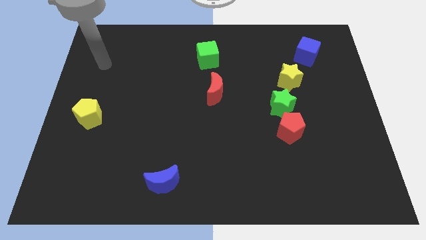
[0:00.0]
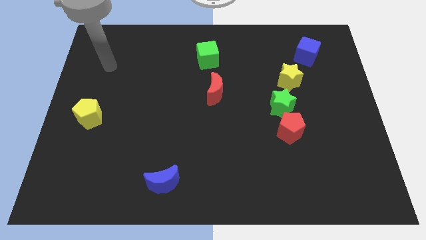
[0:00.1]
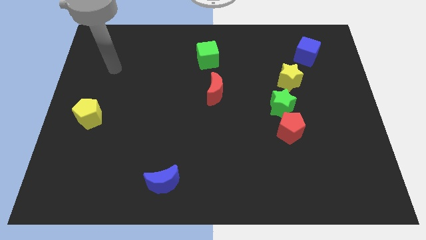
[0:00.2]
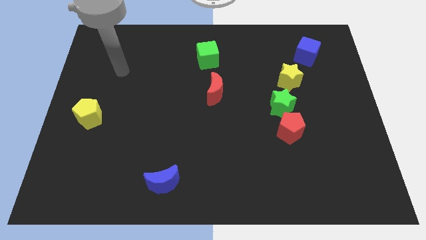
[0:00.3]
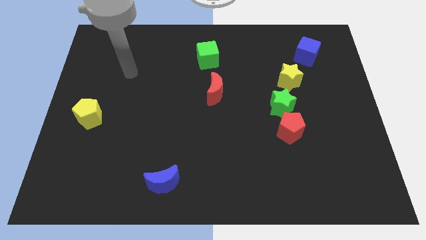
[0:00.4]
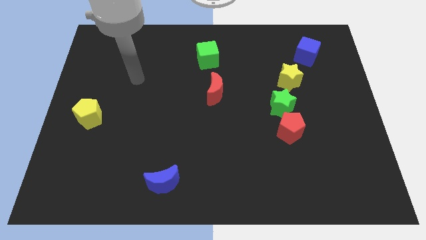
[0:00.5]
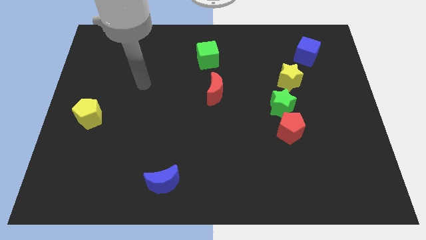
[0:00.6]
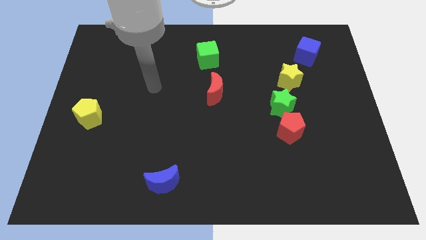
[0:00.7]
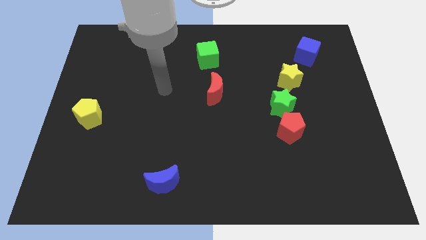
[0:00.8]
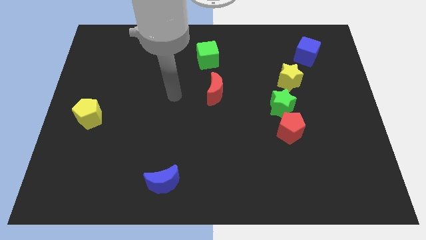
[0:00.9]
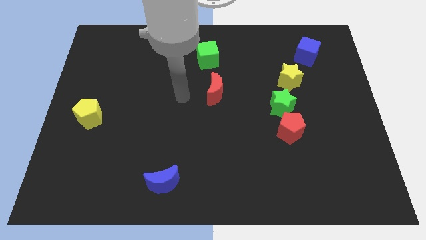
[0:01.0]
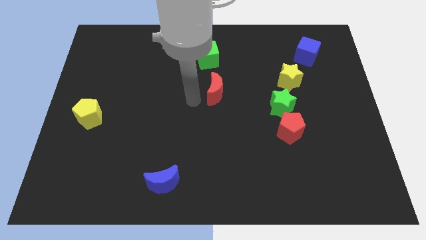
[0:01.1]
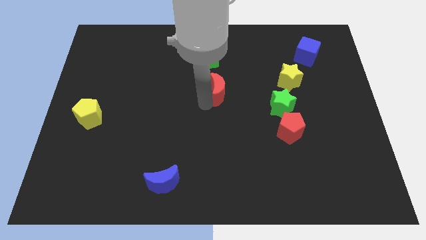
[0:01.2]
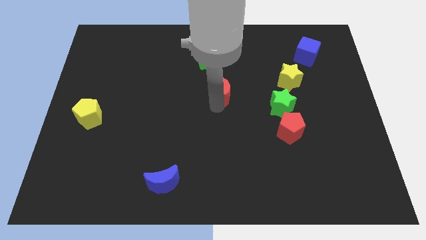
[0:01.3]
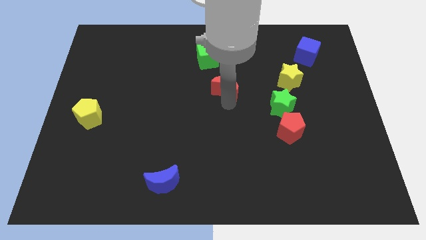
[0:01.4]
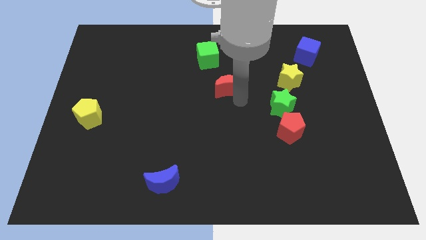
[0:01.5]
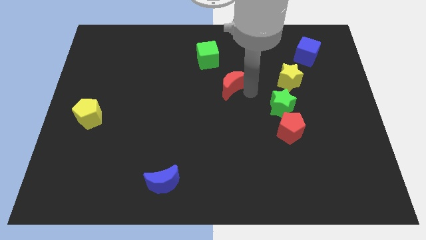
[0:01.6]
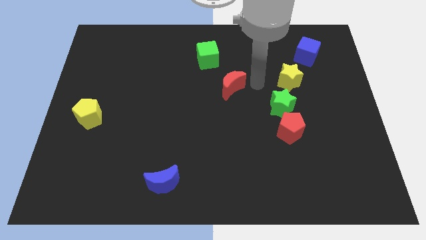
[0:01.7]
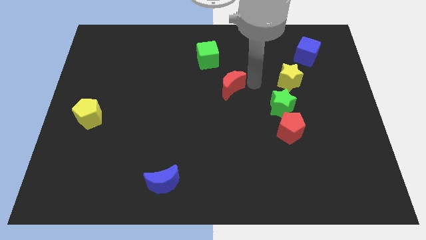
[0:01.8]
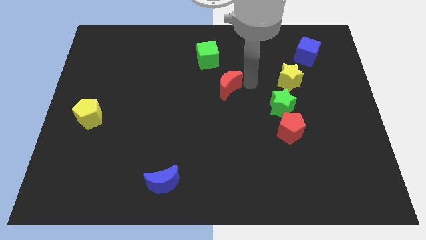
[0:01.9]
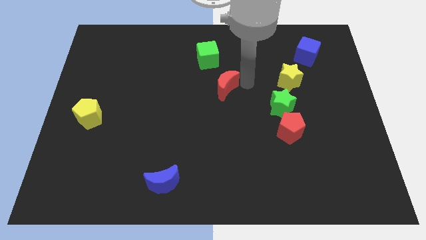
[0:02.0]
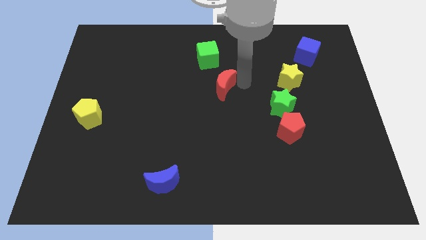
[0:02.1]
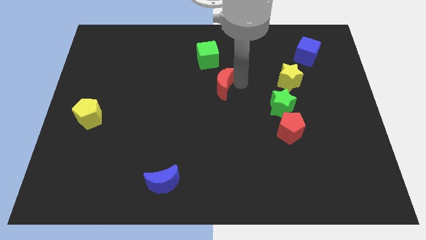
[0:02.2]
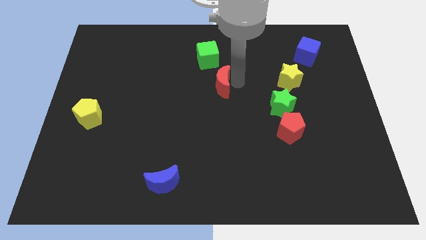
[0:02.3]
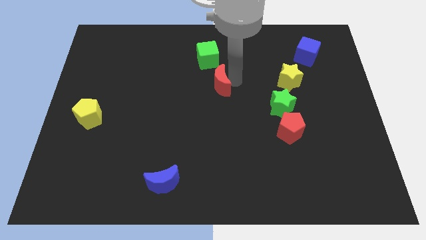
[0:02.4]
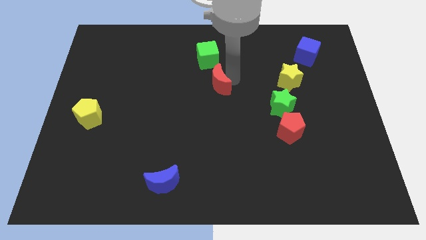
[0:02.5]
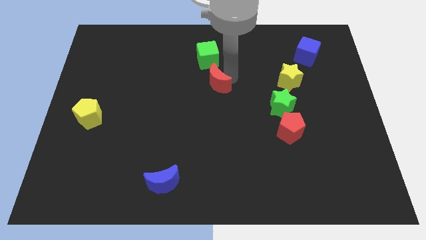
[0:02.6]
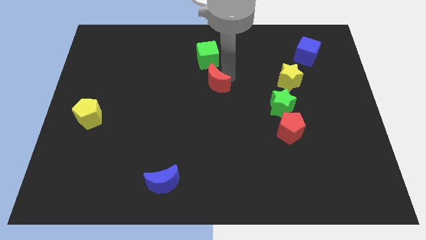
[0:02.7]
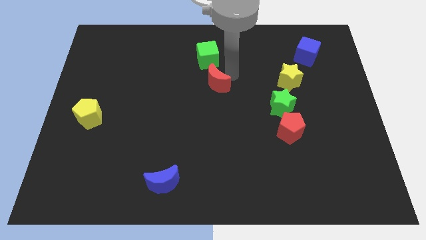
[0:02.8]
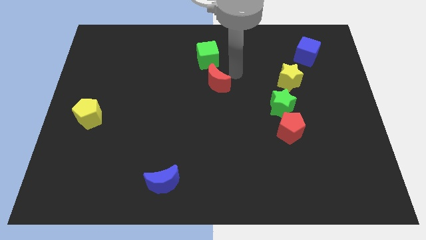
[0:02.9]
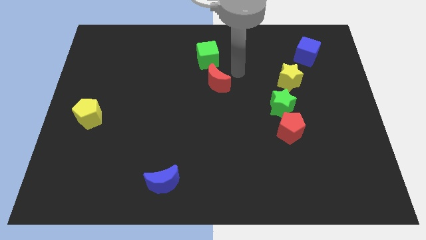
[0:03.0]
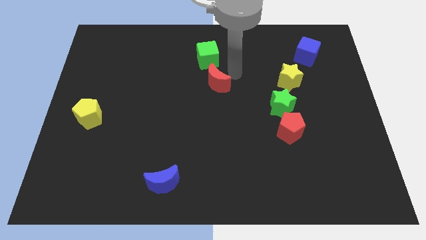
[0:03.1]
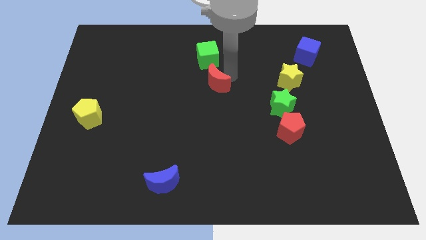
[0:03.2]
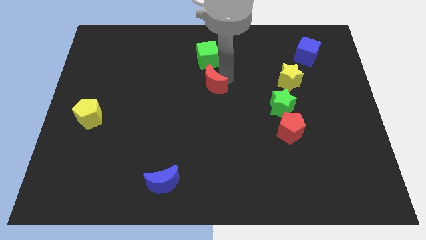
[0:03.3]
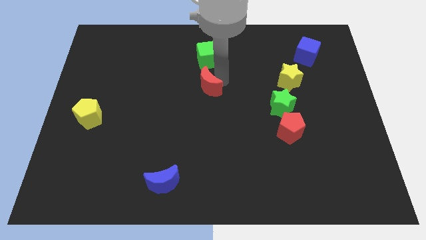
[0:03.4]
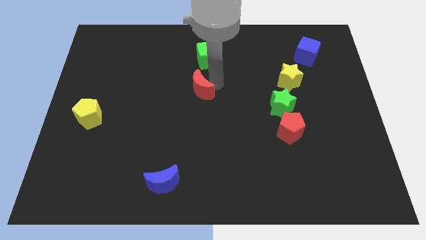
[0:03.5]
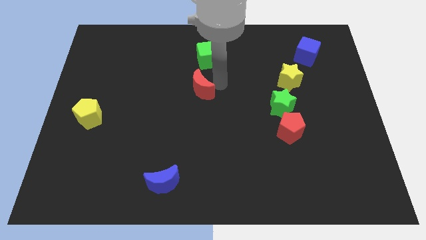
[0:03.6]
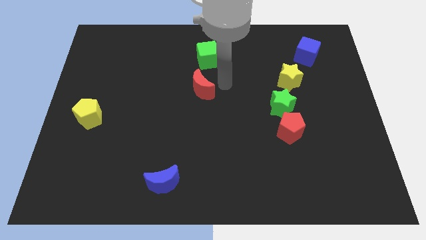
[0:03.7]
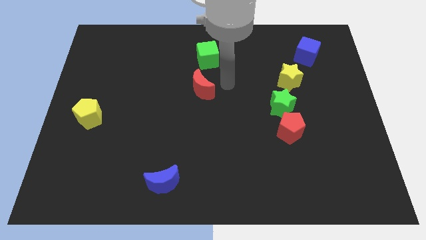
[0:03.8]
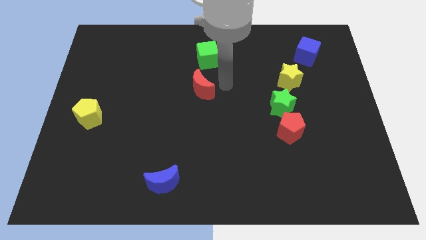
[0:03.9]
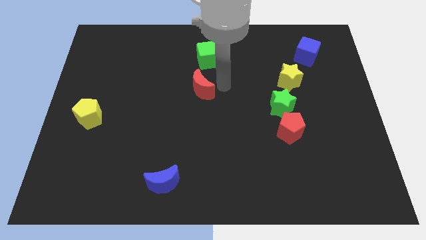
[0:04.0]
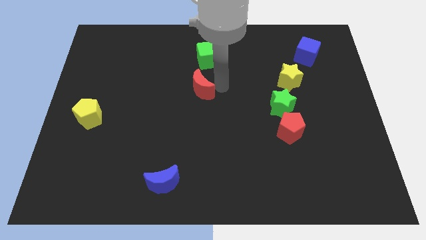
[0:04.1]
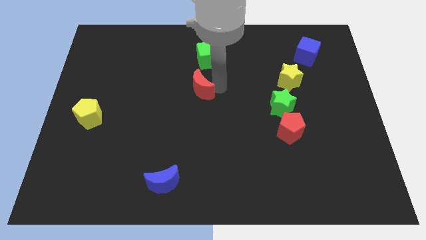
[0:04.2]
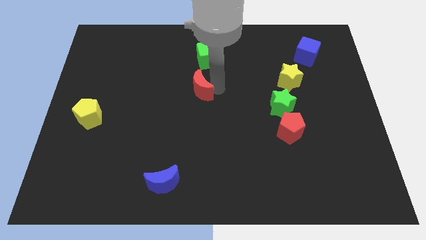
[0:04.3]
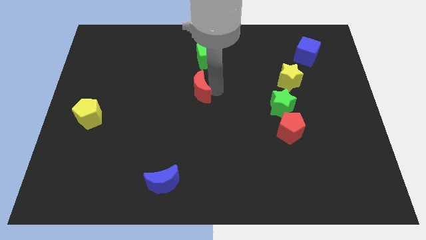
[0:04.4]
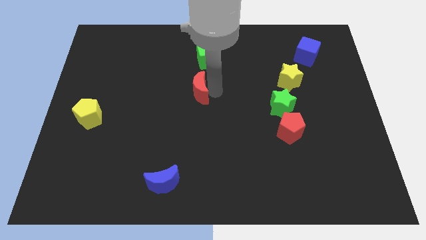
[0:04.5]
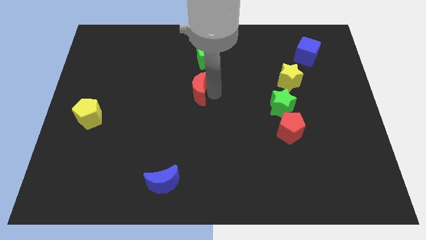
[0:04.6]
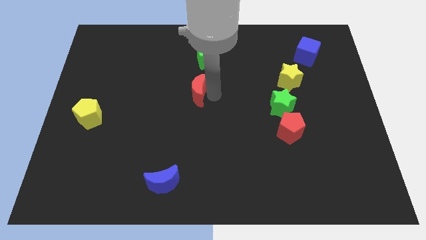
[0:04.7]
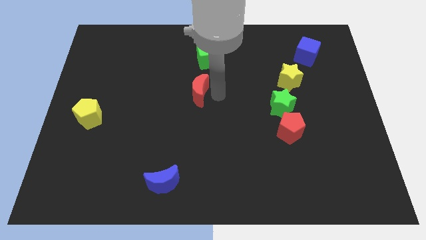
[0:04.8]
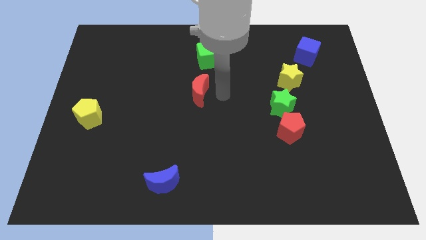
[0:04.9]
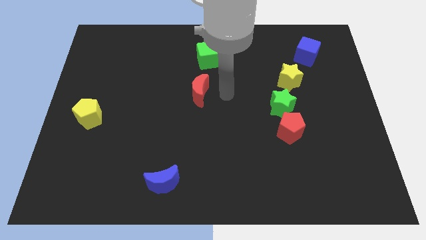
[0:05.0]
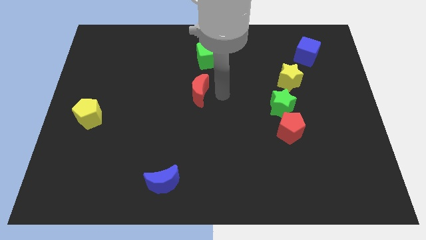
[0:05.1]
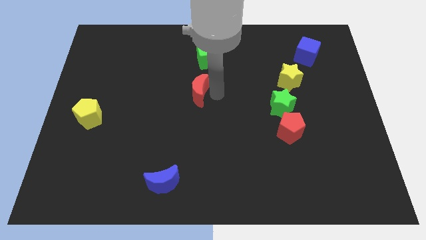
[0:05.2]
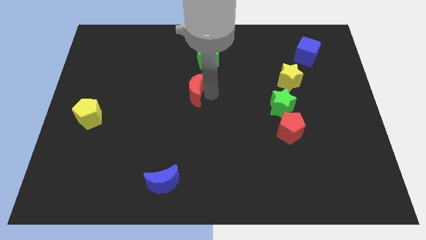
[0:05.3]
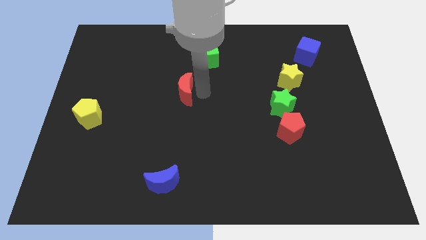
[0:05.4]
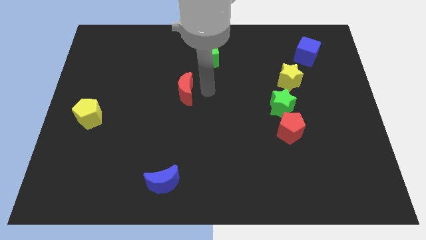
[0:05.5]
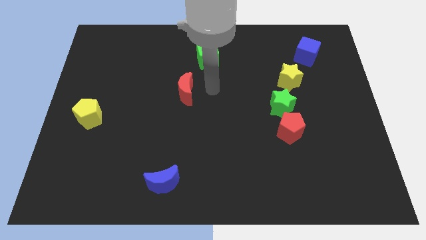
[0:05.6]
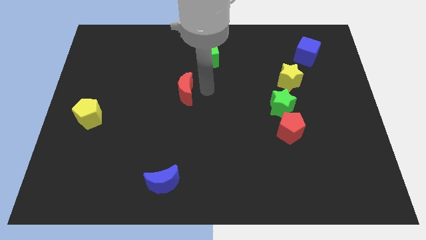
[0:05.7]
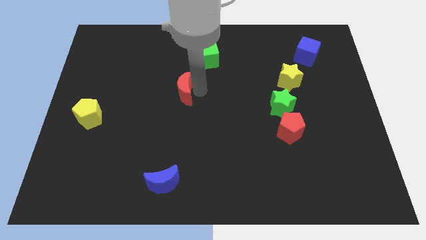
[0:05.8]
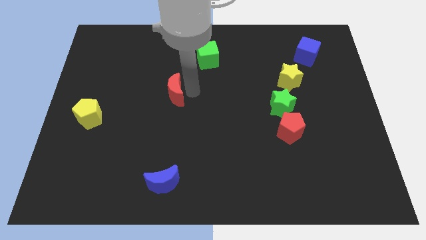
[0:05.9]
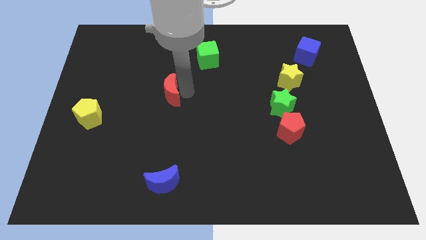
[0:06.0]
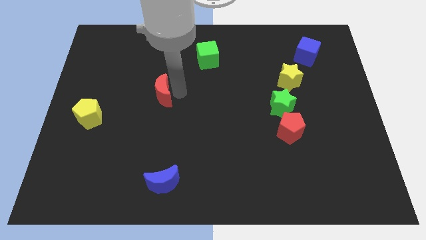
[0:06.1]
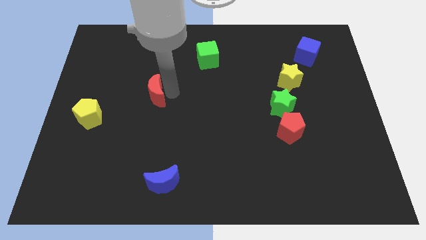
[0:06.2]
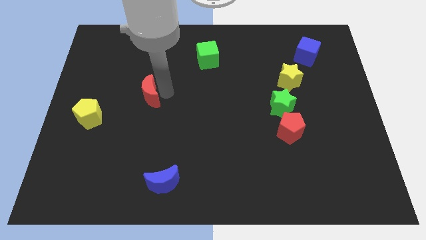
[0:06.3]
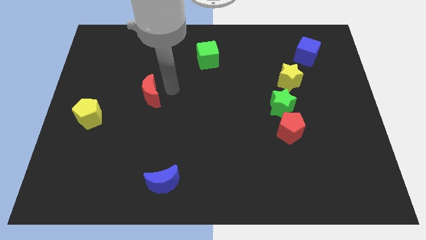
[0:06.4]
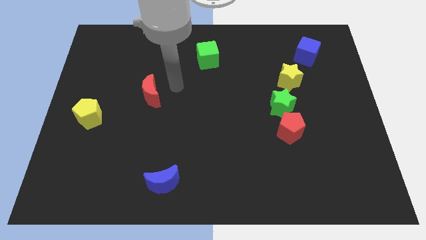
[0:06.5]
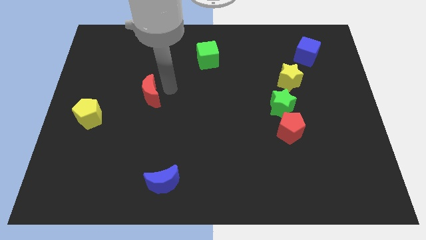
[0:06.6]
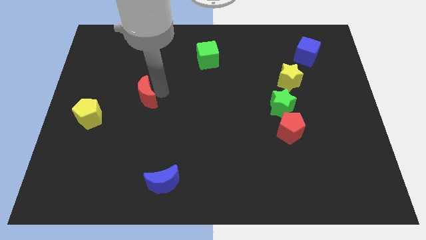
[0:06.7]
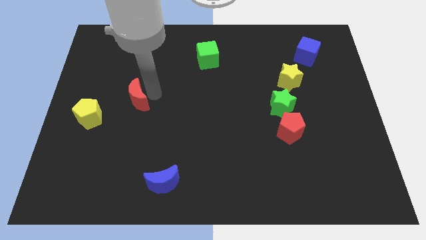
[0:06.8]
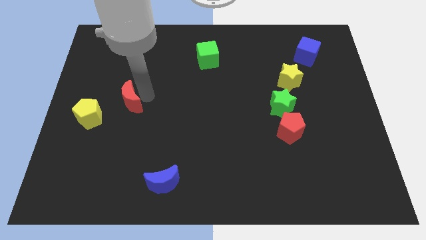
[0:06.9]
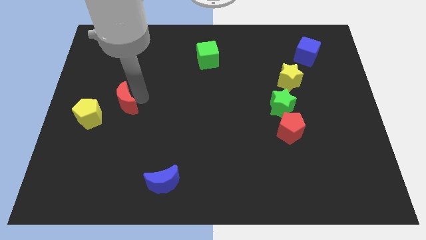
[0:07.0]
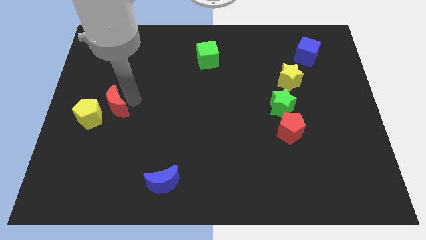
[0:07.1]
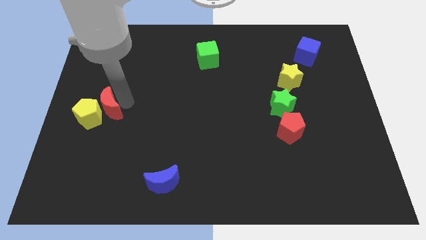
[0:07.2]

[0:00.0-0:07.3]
put the red moon next to the yellow pentagon
